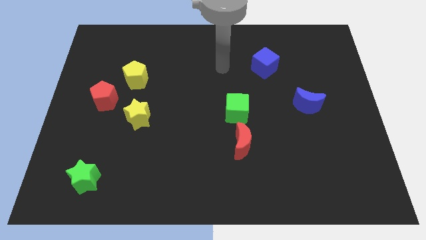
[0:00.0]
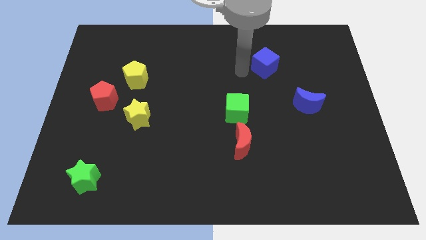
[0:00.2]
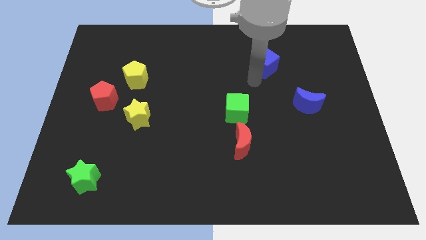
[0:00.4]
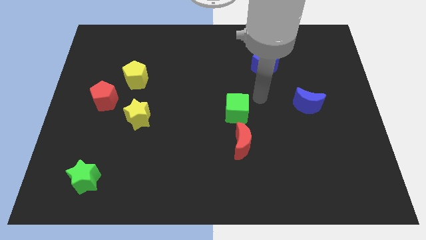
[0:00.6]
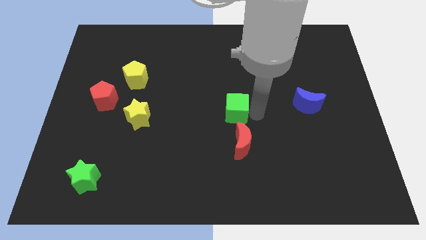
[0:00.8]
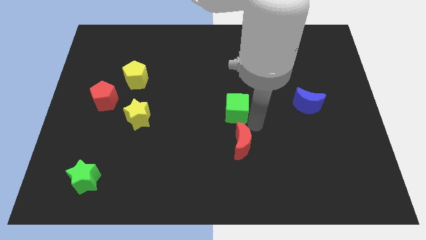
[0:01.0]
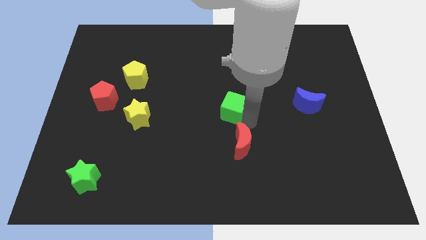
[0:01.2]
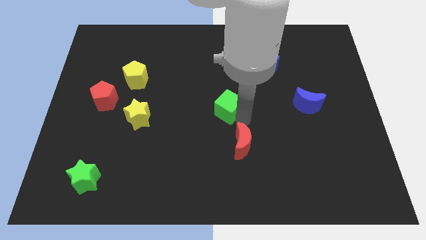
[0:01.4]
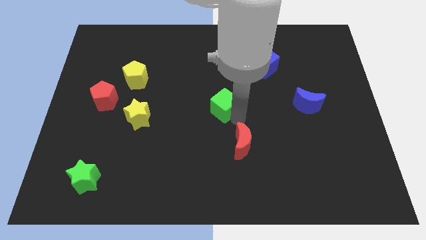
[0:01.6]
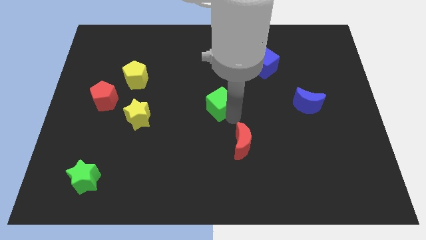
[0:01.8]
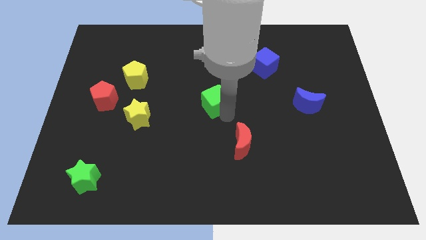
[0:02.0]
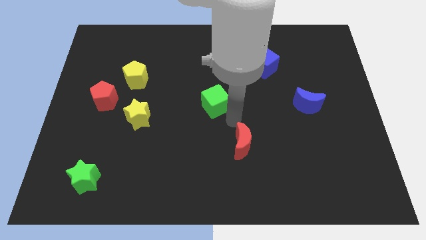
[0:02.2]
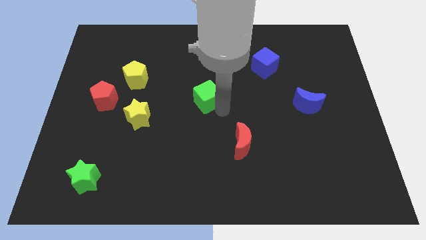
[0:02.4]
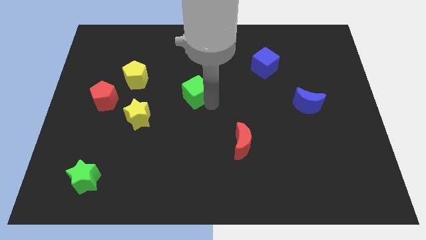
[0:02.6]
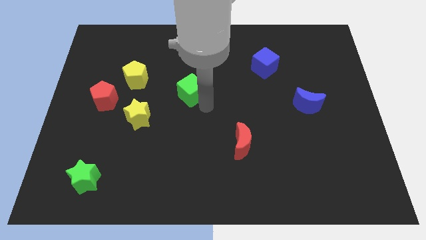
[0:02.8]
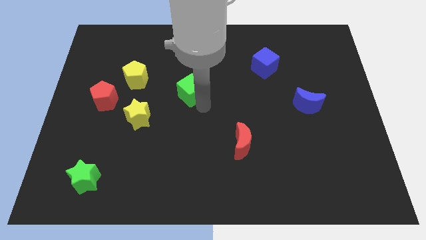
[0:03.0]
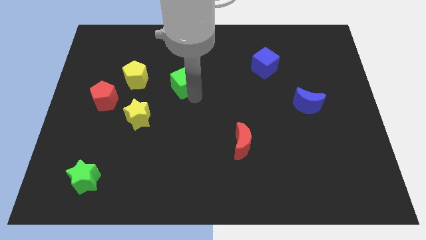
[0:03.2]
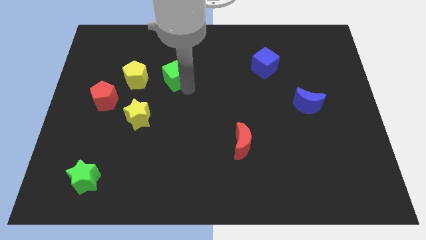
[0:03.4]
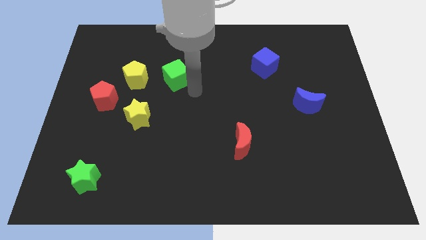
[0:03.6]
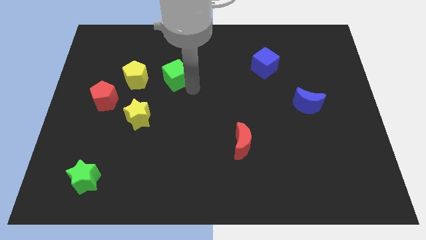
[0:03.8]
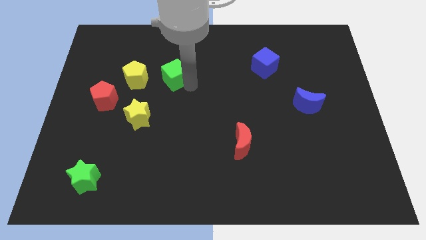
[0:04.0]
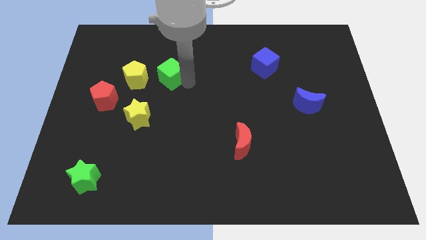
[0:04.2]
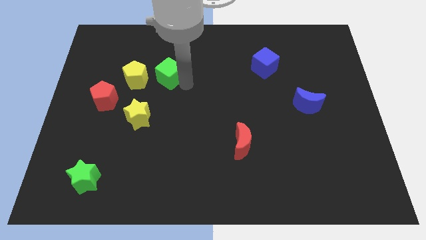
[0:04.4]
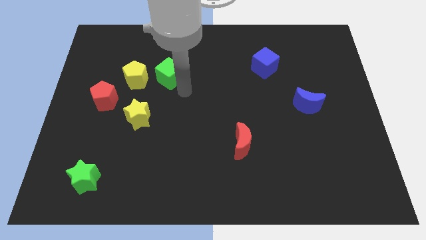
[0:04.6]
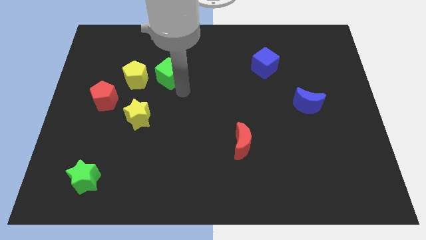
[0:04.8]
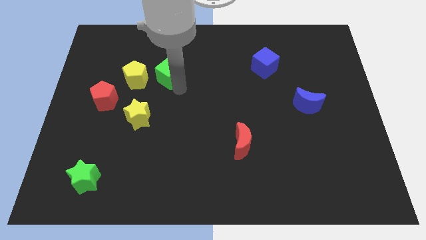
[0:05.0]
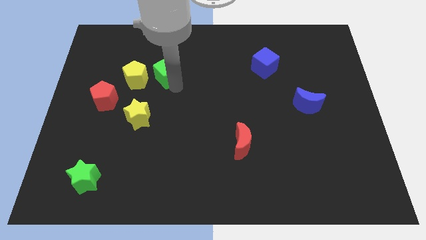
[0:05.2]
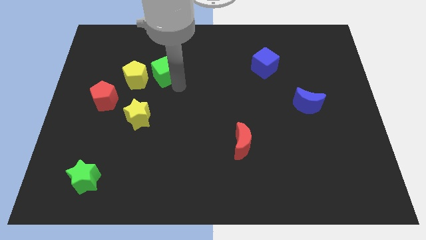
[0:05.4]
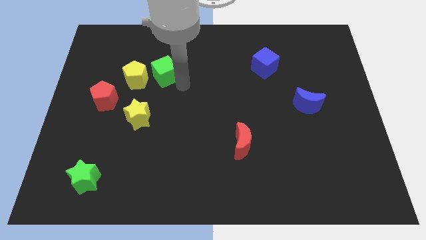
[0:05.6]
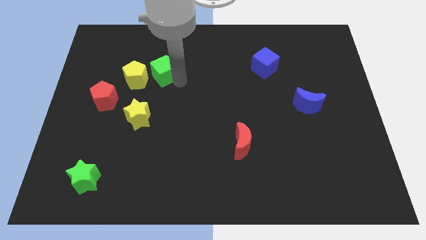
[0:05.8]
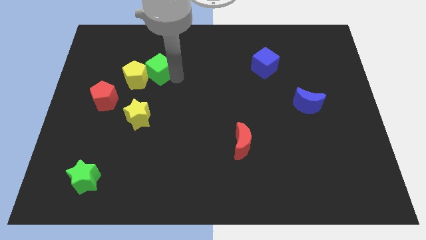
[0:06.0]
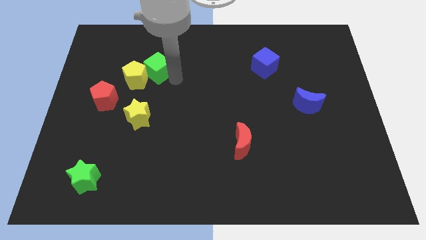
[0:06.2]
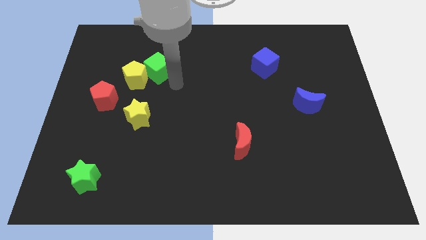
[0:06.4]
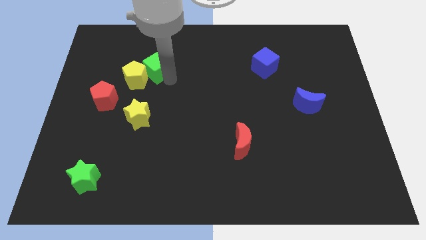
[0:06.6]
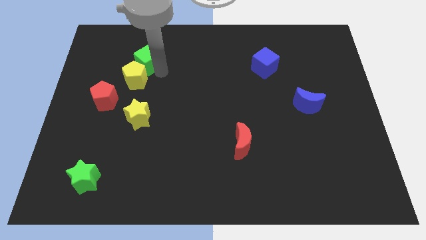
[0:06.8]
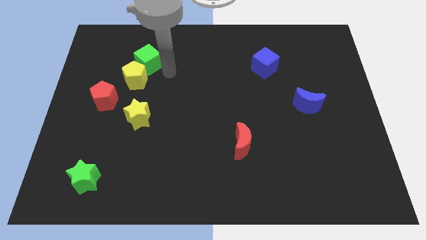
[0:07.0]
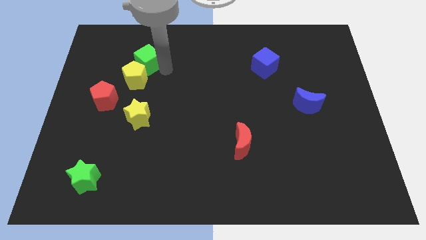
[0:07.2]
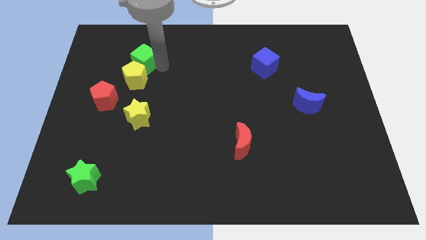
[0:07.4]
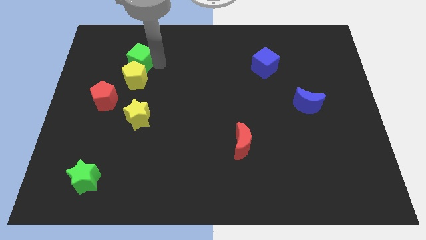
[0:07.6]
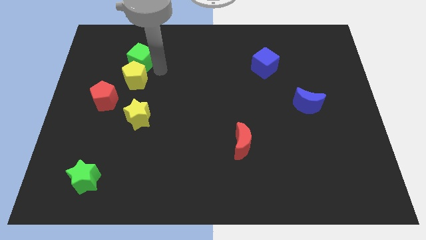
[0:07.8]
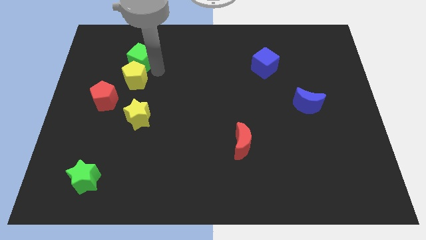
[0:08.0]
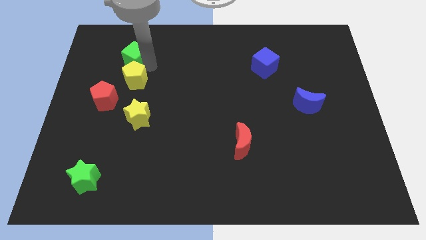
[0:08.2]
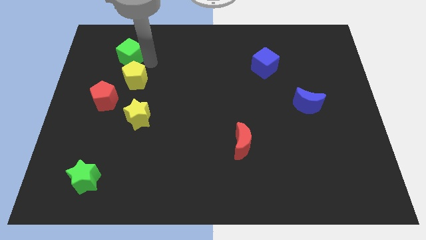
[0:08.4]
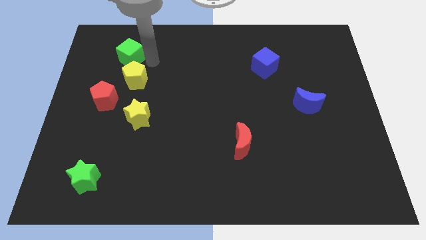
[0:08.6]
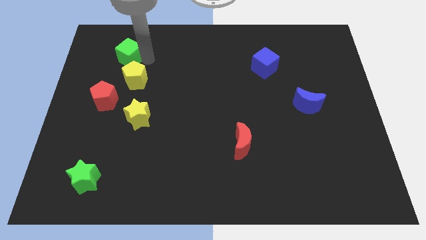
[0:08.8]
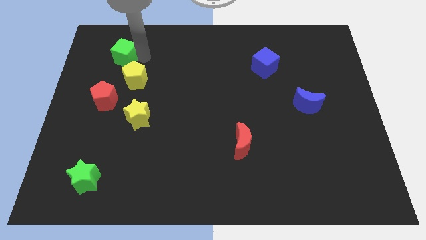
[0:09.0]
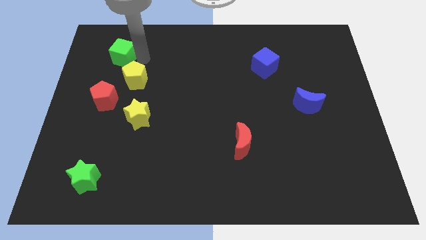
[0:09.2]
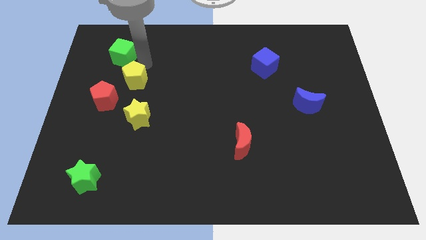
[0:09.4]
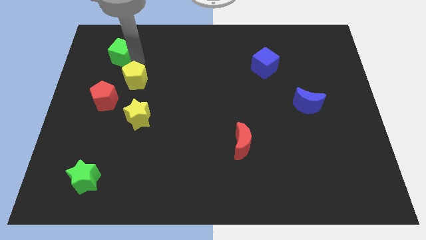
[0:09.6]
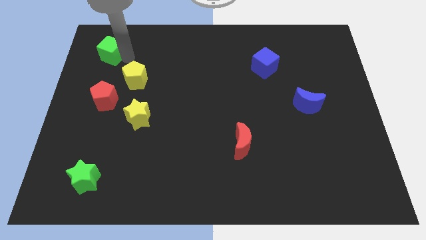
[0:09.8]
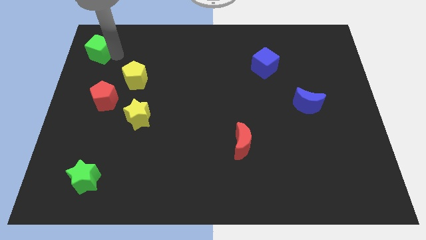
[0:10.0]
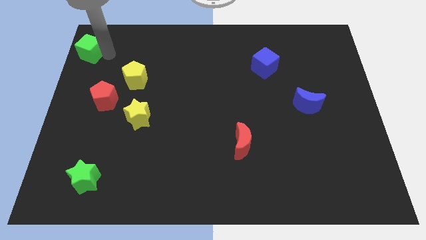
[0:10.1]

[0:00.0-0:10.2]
push the green cube to the top left
